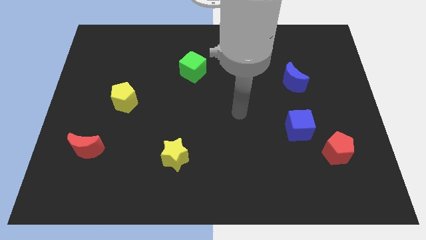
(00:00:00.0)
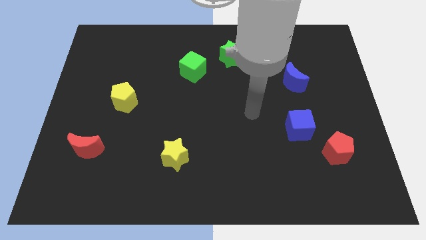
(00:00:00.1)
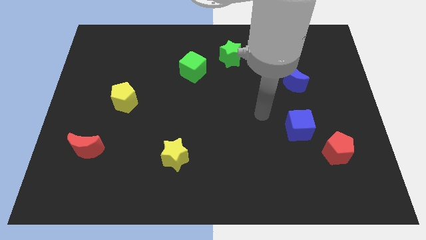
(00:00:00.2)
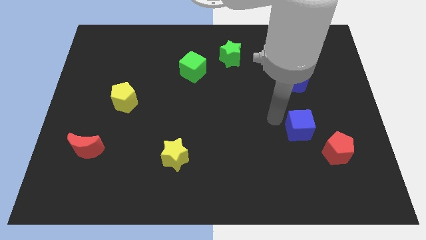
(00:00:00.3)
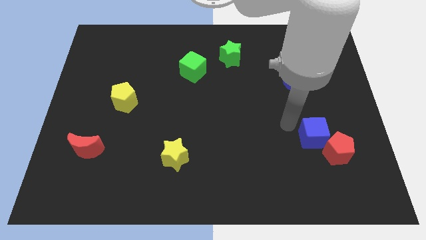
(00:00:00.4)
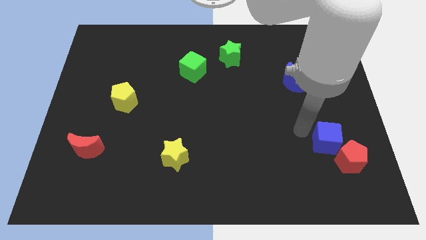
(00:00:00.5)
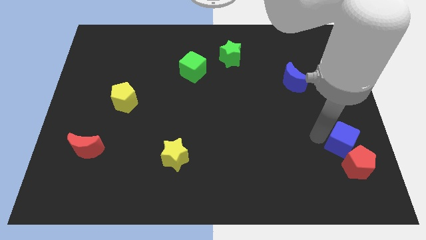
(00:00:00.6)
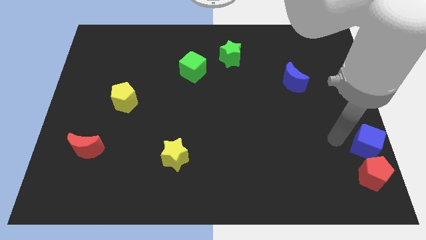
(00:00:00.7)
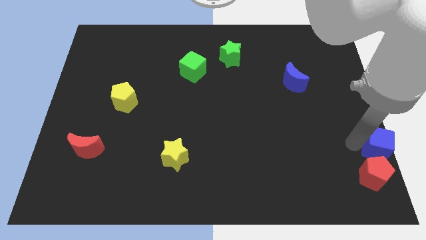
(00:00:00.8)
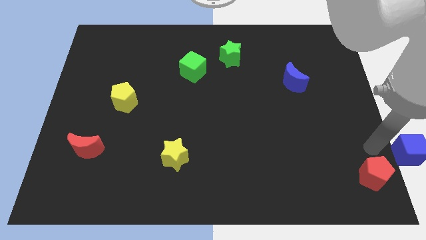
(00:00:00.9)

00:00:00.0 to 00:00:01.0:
separate the red pentagon from the blue cube

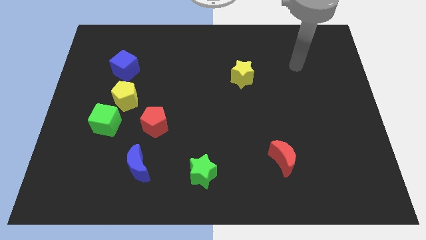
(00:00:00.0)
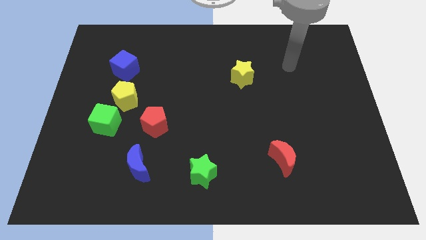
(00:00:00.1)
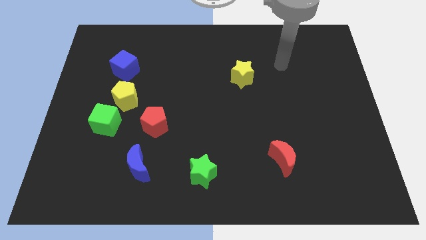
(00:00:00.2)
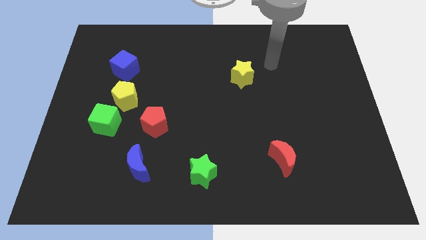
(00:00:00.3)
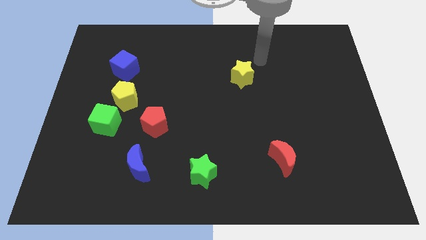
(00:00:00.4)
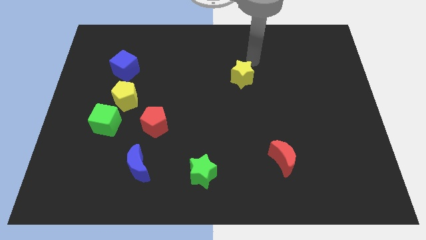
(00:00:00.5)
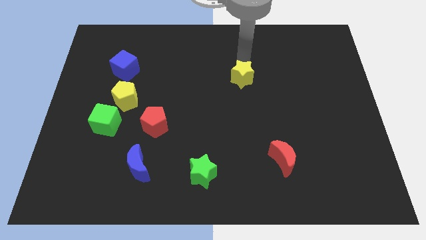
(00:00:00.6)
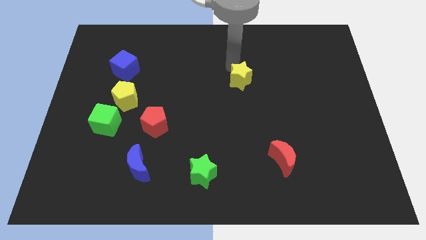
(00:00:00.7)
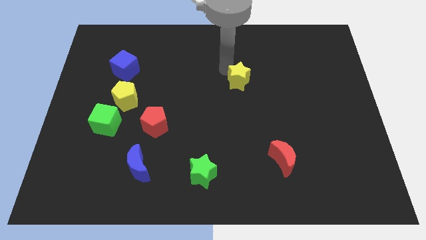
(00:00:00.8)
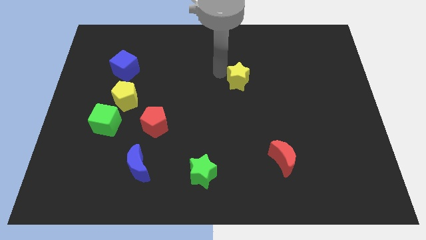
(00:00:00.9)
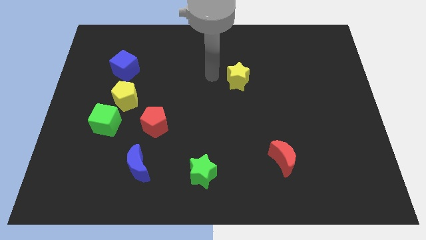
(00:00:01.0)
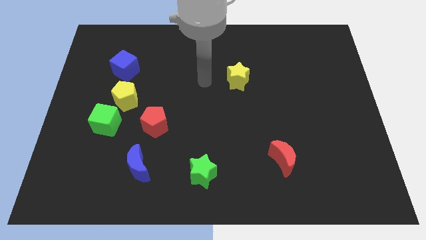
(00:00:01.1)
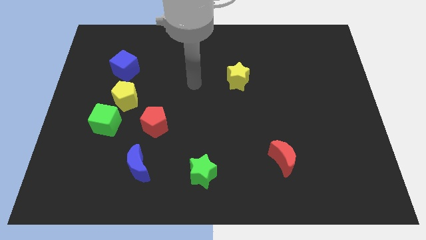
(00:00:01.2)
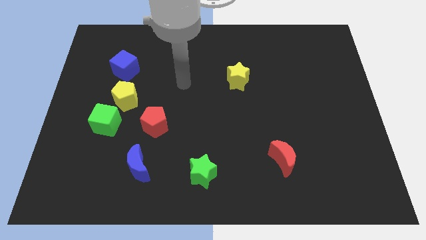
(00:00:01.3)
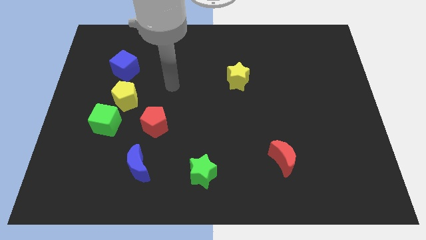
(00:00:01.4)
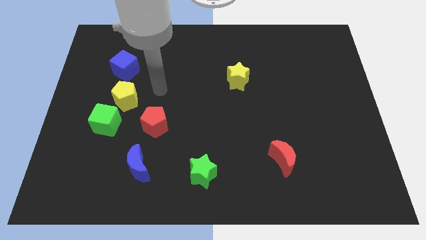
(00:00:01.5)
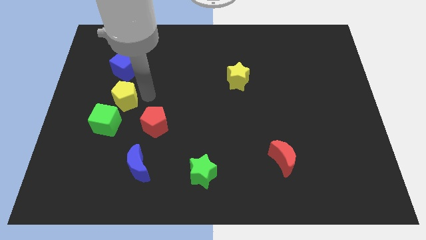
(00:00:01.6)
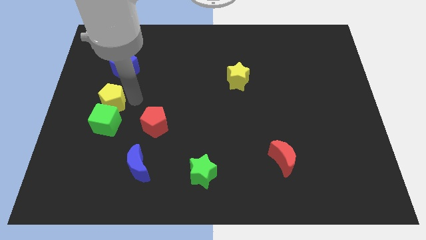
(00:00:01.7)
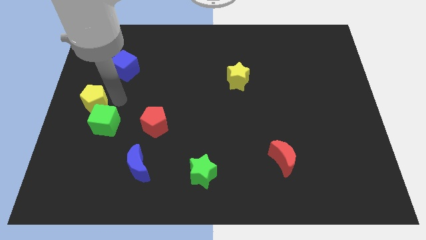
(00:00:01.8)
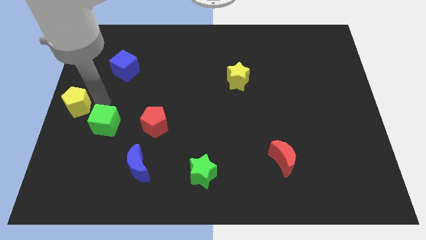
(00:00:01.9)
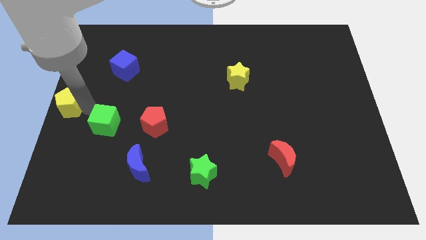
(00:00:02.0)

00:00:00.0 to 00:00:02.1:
pull the green cube apart from the yellow pentagon

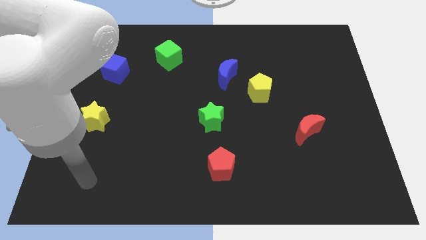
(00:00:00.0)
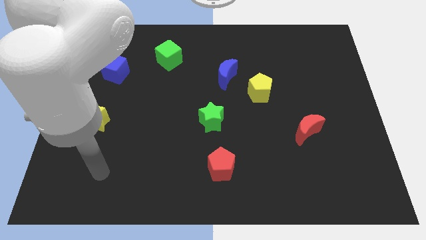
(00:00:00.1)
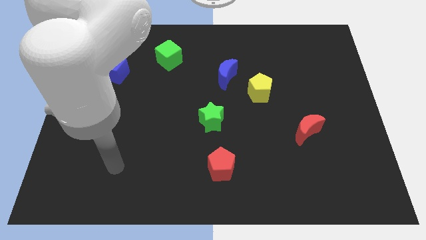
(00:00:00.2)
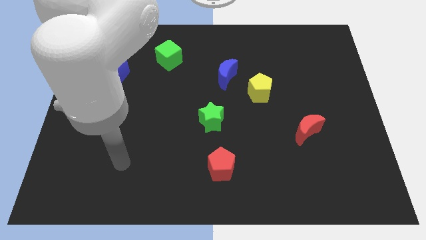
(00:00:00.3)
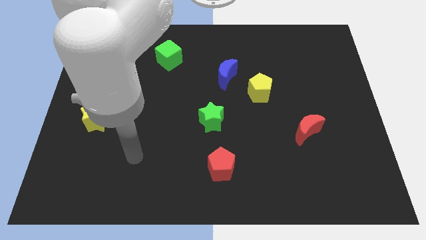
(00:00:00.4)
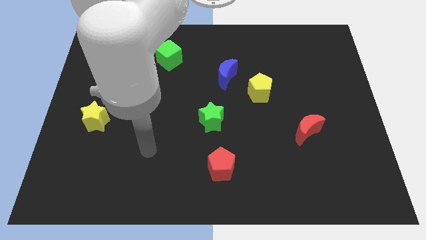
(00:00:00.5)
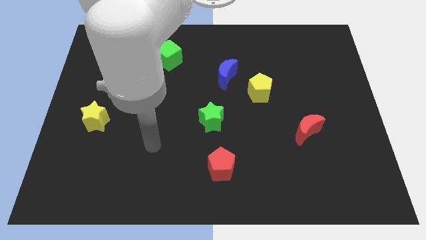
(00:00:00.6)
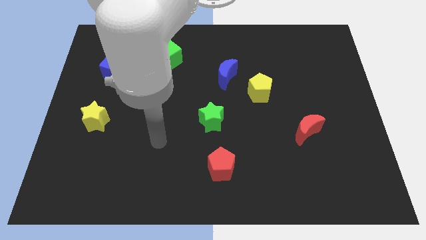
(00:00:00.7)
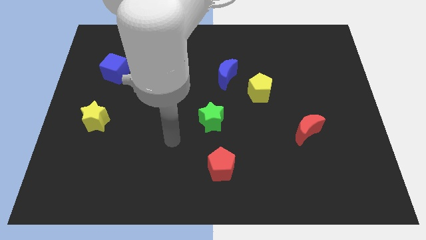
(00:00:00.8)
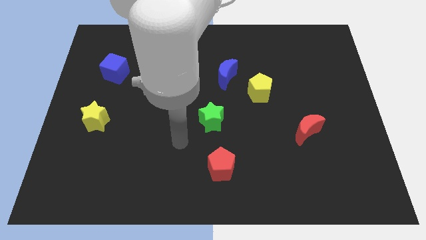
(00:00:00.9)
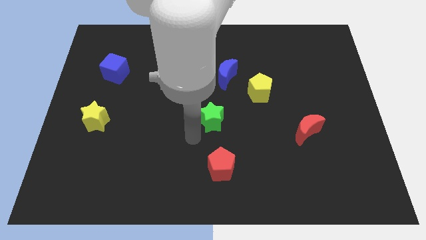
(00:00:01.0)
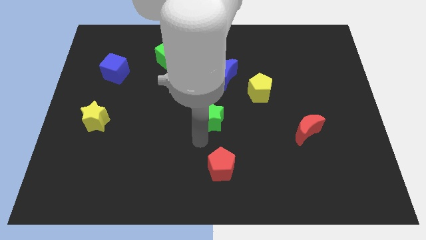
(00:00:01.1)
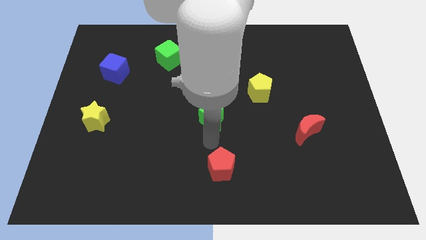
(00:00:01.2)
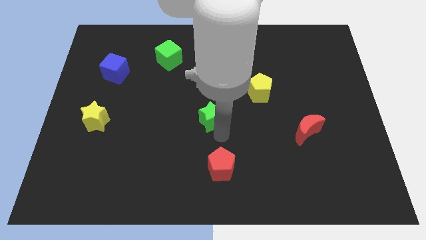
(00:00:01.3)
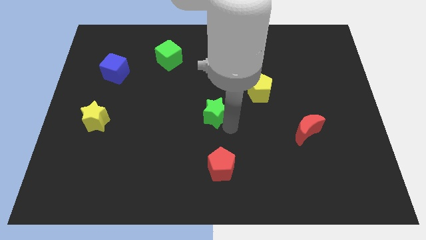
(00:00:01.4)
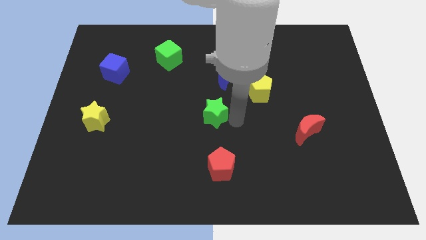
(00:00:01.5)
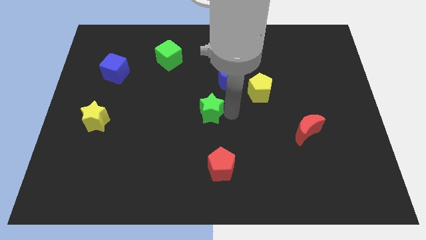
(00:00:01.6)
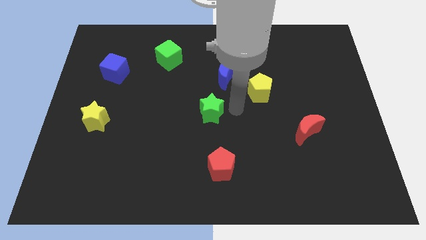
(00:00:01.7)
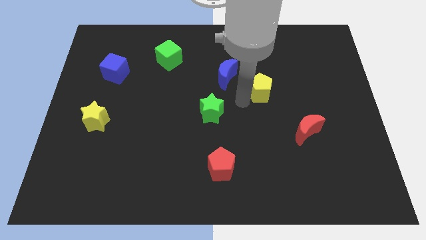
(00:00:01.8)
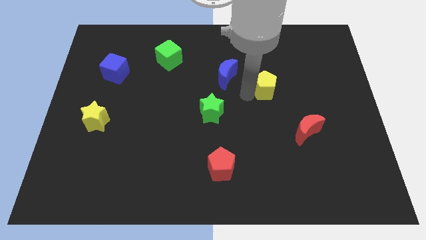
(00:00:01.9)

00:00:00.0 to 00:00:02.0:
pull the blue moon apart from the yellow pentagon

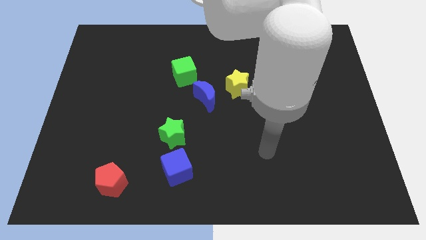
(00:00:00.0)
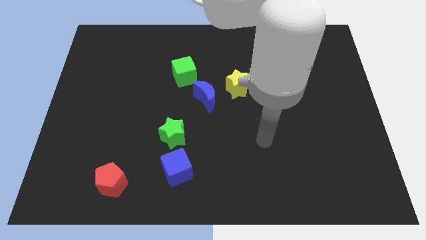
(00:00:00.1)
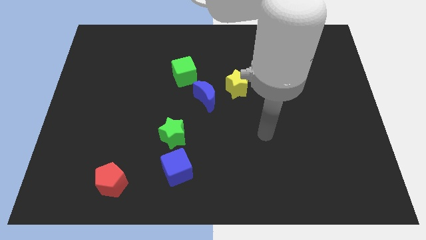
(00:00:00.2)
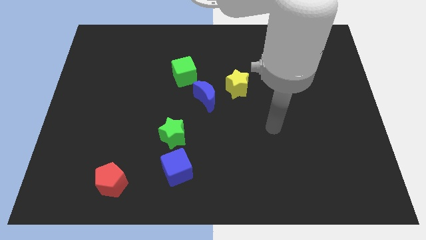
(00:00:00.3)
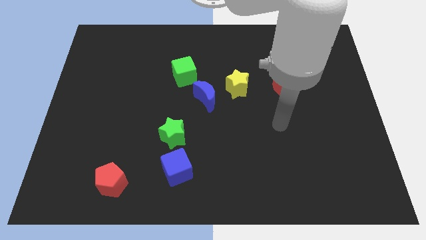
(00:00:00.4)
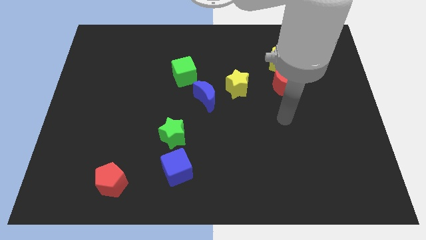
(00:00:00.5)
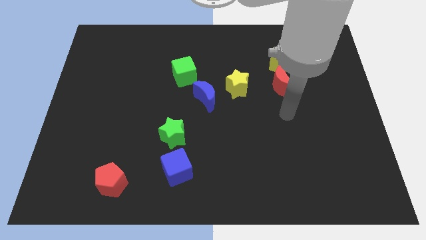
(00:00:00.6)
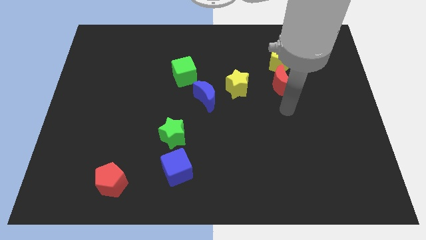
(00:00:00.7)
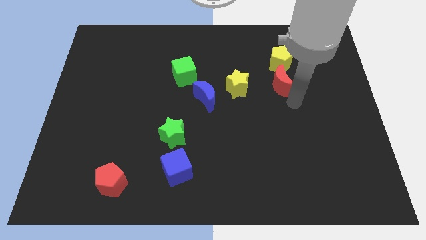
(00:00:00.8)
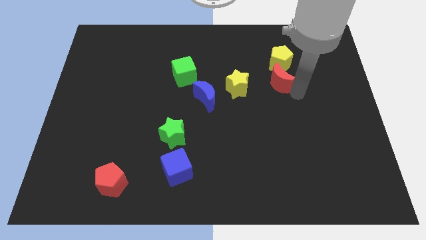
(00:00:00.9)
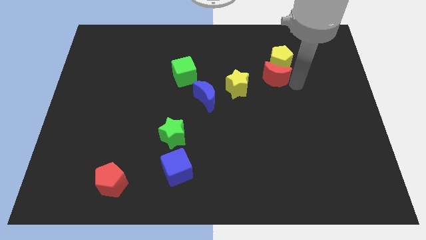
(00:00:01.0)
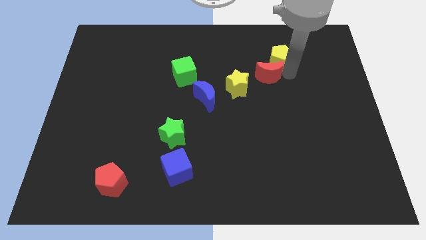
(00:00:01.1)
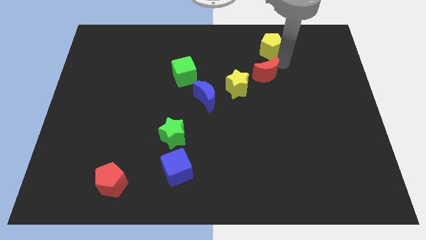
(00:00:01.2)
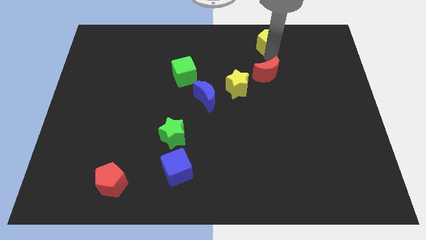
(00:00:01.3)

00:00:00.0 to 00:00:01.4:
pull the red moon apart from the yellow pentagon

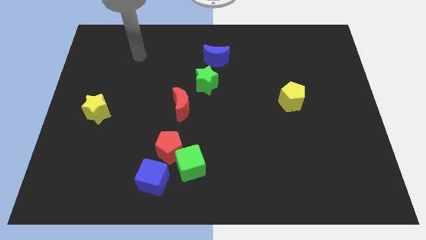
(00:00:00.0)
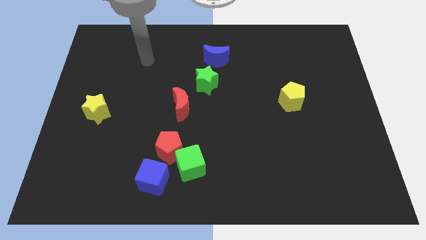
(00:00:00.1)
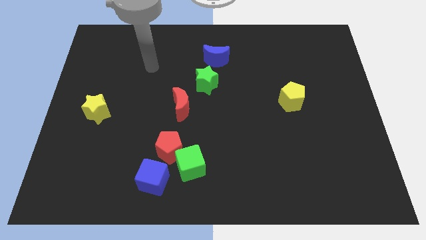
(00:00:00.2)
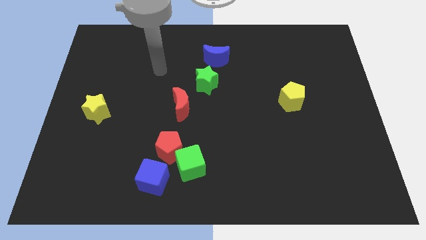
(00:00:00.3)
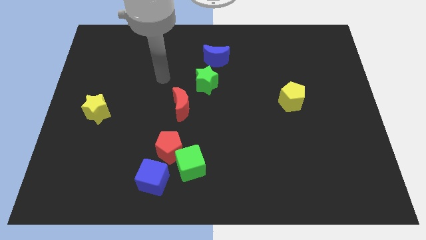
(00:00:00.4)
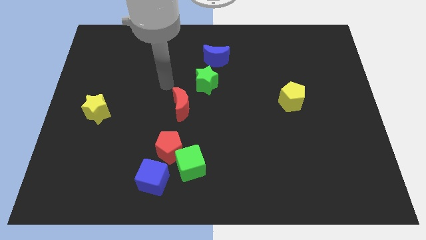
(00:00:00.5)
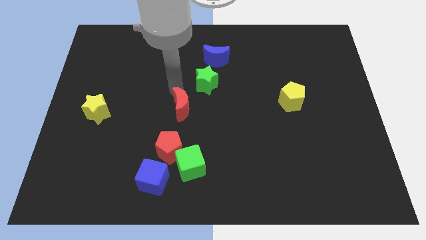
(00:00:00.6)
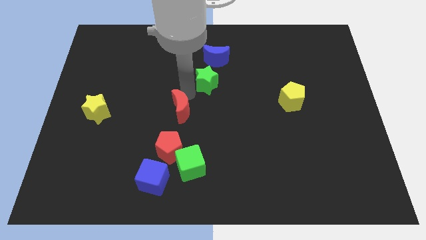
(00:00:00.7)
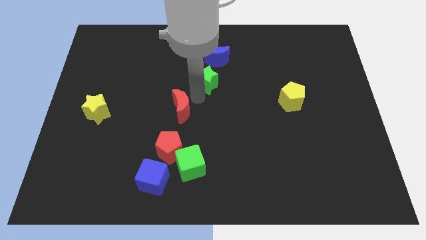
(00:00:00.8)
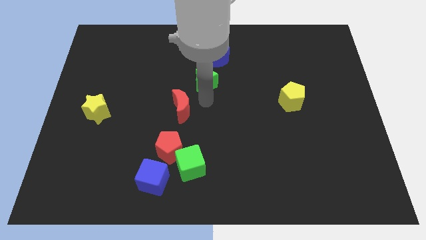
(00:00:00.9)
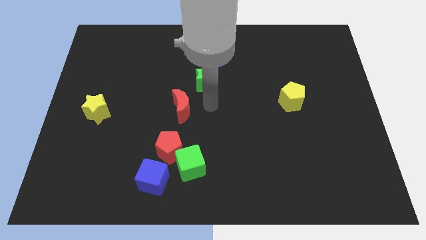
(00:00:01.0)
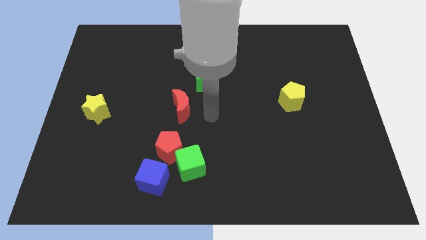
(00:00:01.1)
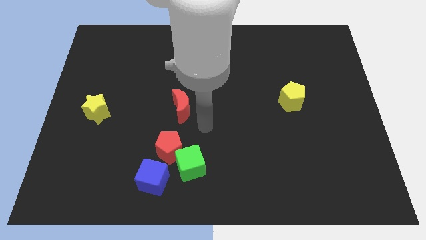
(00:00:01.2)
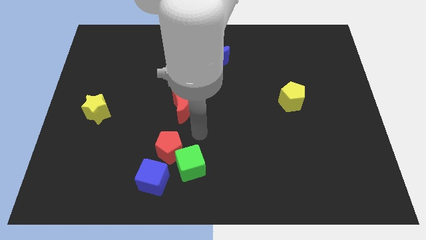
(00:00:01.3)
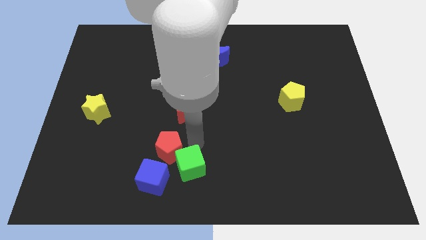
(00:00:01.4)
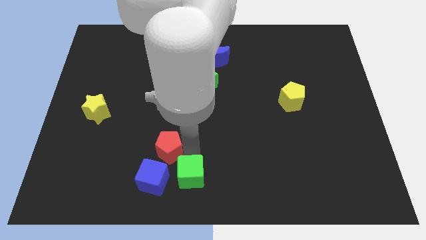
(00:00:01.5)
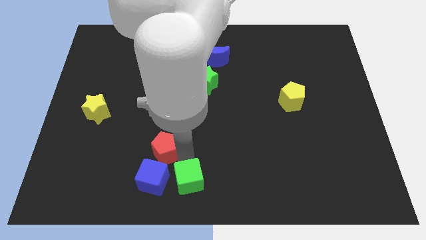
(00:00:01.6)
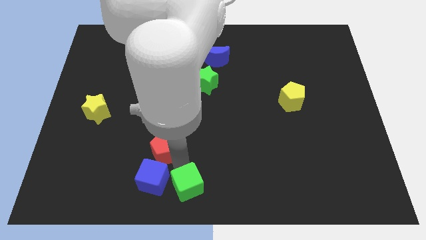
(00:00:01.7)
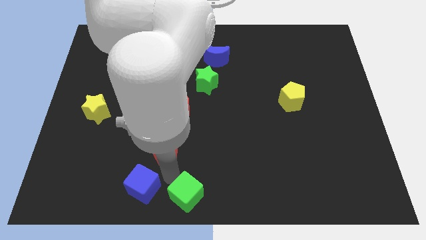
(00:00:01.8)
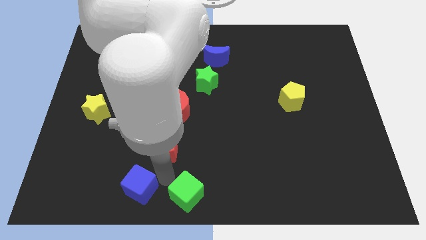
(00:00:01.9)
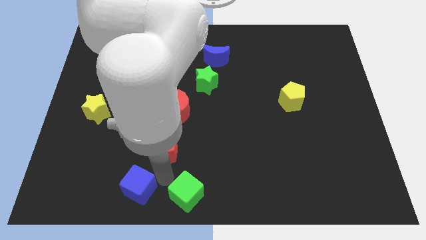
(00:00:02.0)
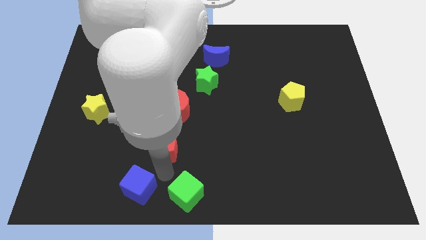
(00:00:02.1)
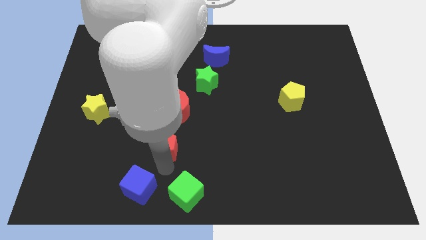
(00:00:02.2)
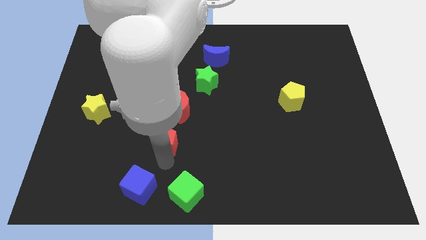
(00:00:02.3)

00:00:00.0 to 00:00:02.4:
move the red pentagon away from the green cube and blue cube

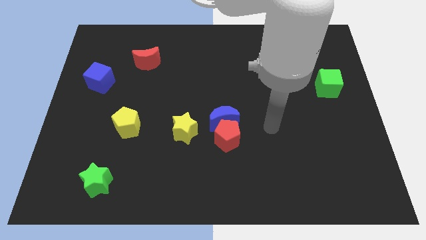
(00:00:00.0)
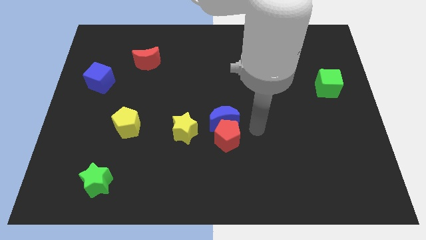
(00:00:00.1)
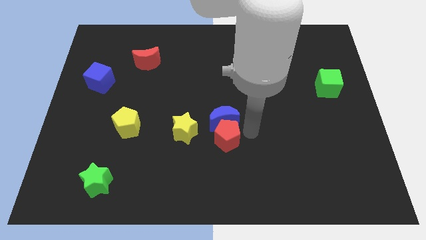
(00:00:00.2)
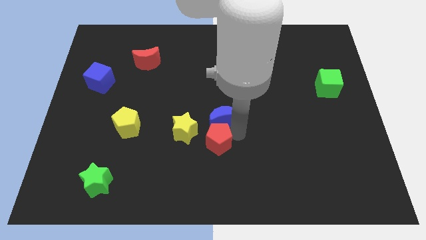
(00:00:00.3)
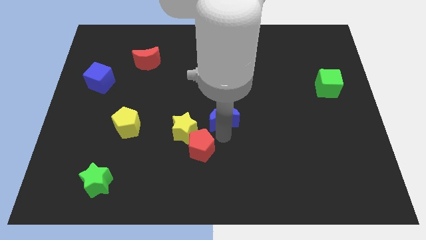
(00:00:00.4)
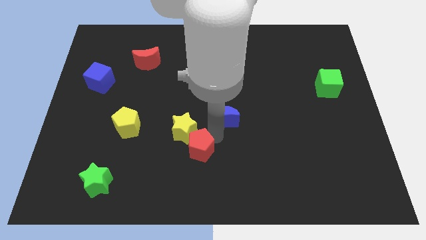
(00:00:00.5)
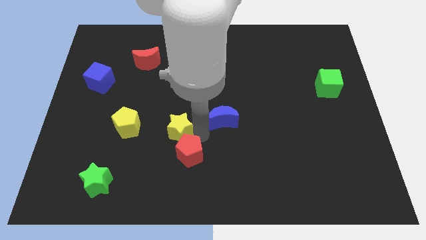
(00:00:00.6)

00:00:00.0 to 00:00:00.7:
separate the blue moon from the red pentagon and yellow star
